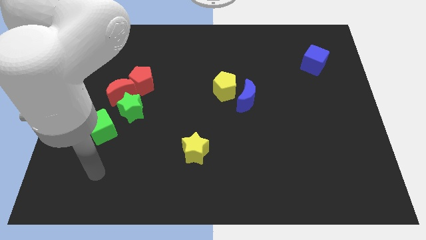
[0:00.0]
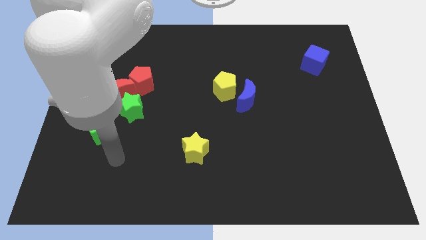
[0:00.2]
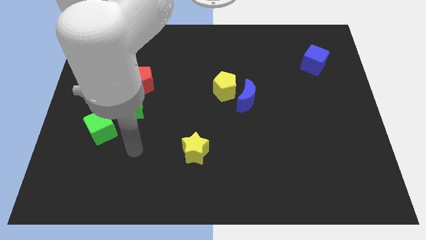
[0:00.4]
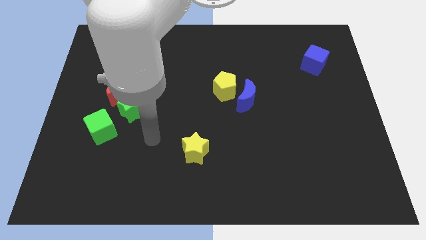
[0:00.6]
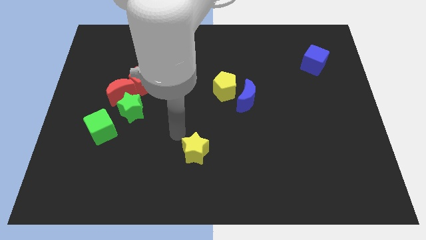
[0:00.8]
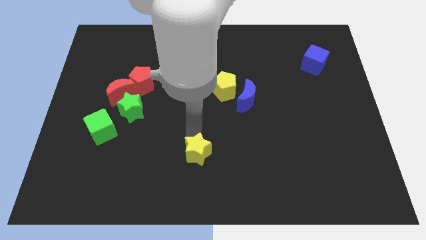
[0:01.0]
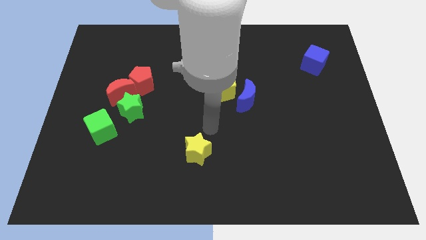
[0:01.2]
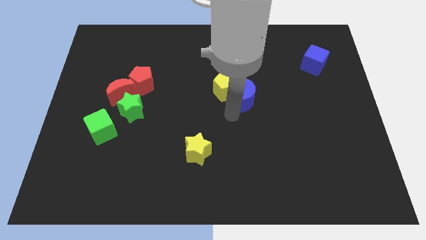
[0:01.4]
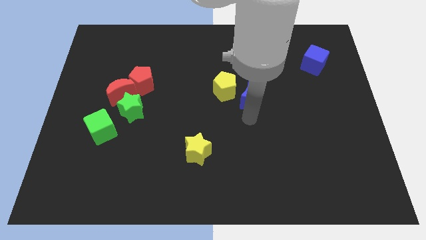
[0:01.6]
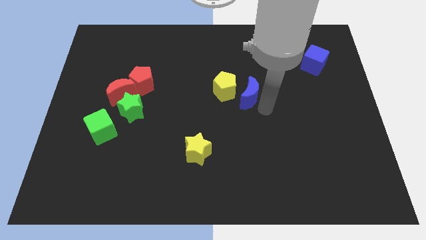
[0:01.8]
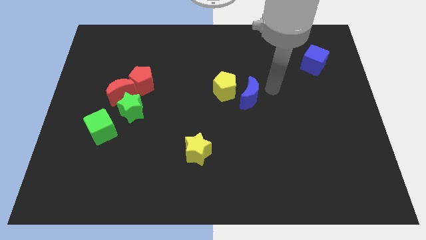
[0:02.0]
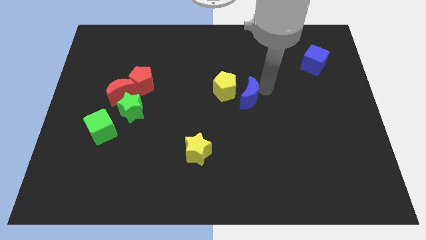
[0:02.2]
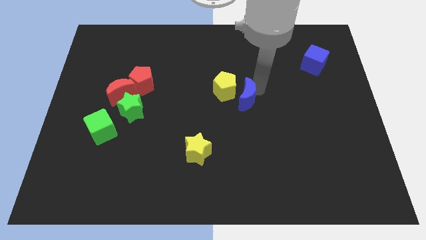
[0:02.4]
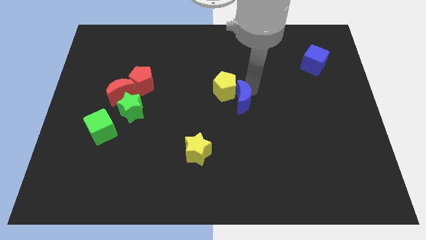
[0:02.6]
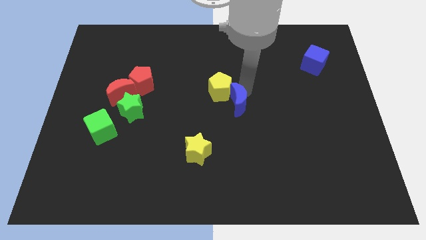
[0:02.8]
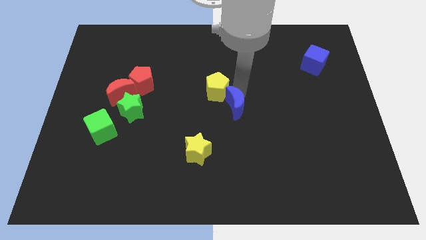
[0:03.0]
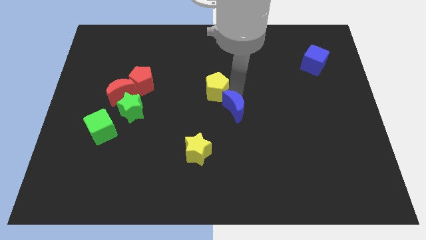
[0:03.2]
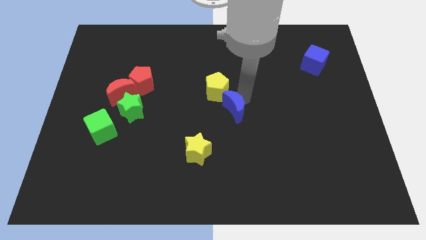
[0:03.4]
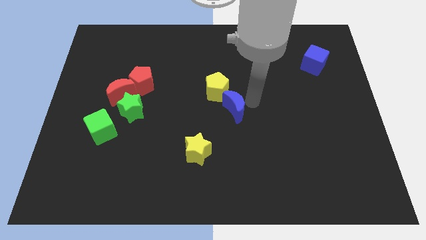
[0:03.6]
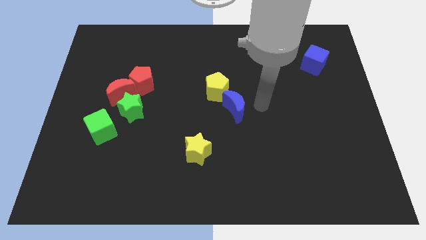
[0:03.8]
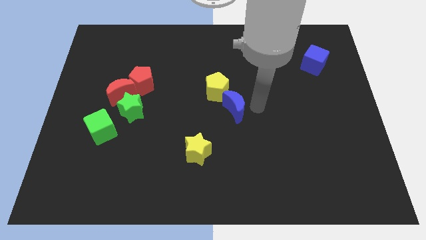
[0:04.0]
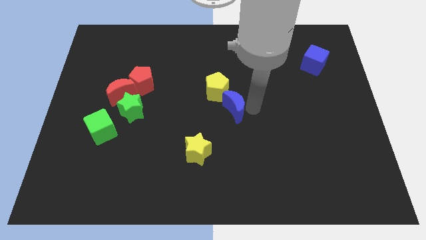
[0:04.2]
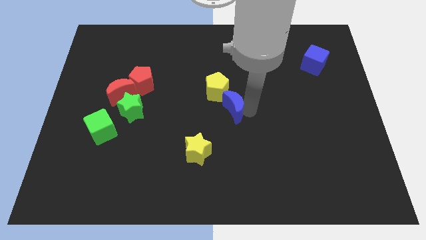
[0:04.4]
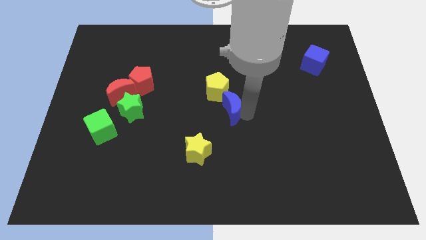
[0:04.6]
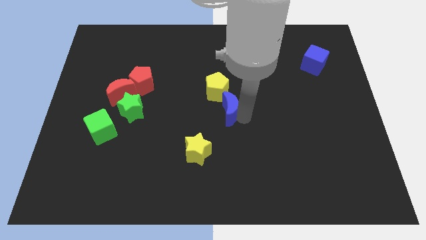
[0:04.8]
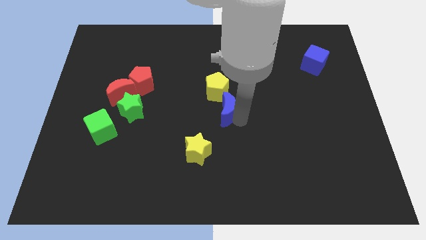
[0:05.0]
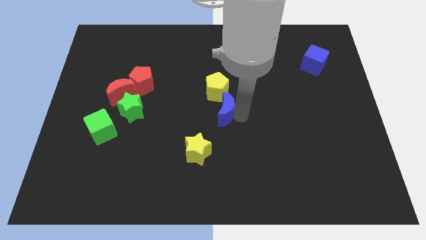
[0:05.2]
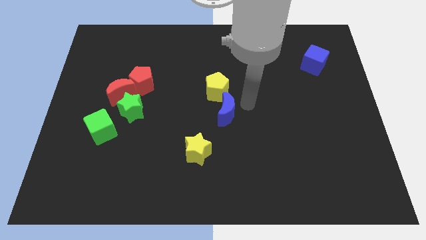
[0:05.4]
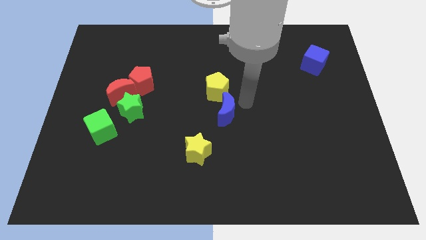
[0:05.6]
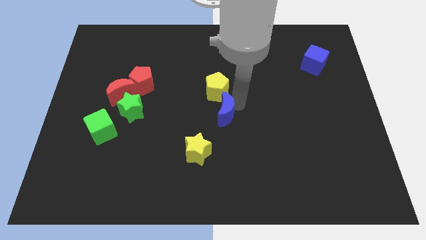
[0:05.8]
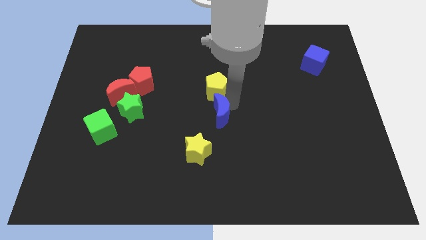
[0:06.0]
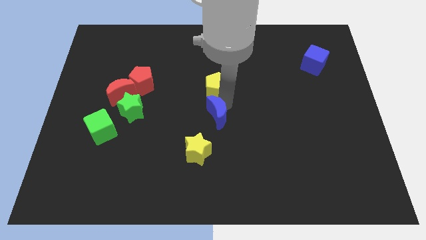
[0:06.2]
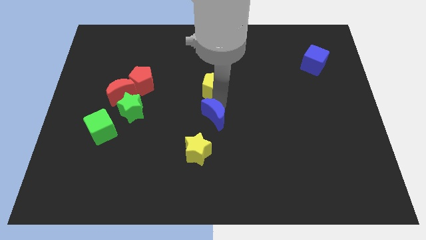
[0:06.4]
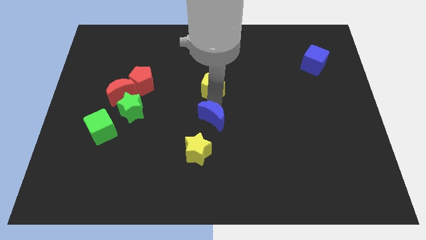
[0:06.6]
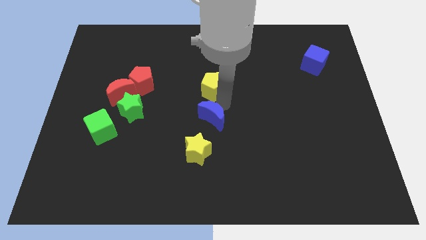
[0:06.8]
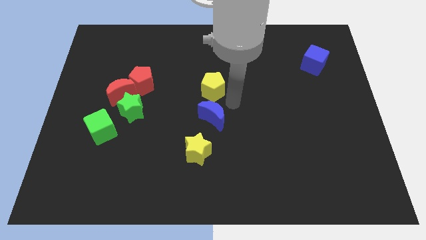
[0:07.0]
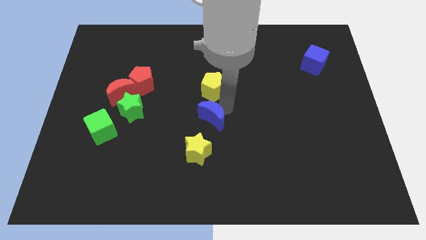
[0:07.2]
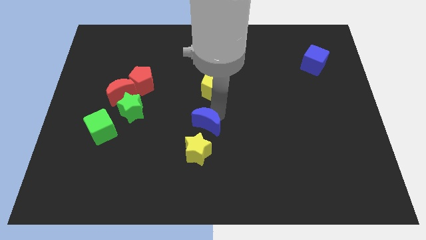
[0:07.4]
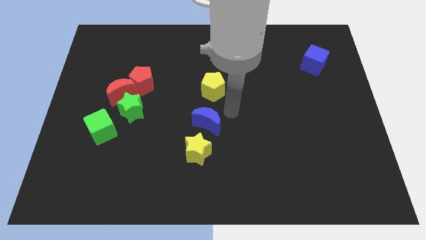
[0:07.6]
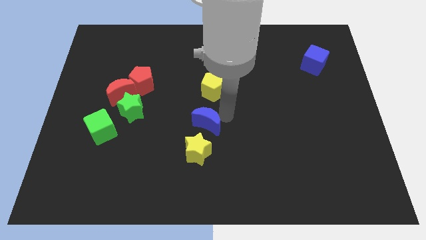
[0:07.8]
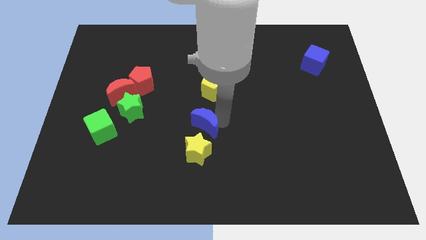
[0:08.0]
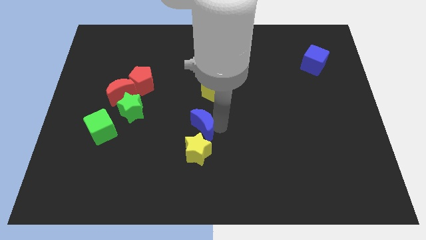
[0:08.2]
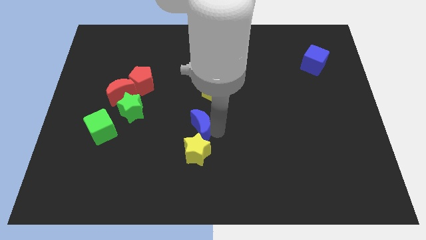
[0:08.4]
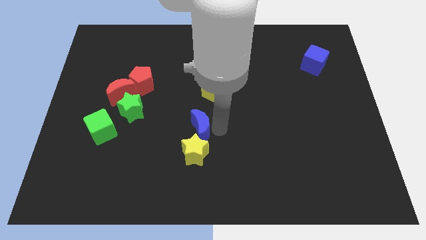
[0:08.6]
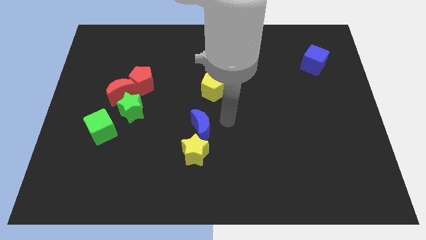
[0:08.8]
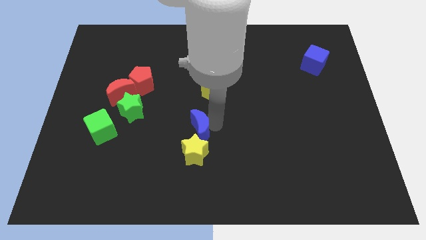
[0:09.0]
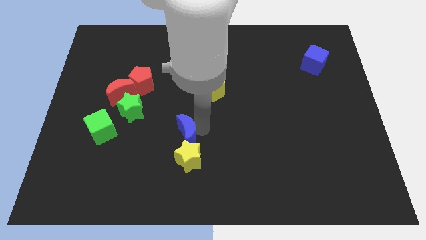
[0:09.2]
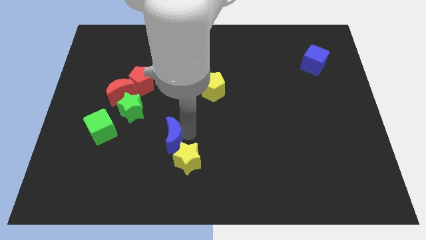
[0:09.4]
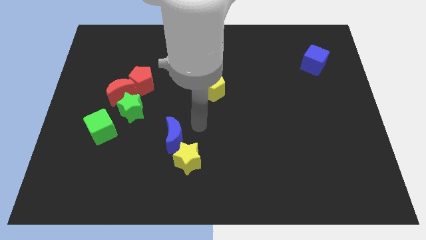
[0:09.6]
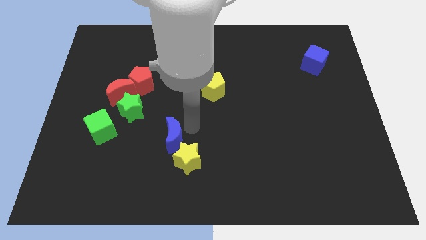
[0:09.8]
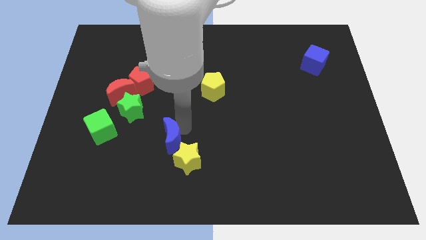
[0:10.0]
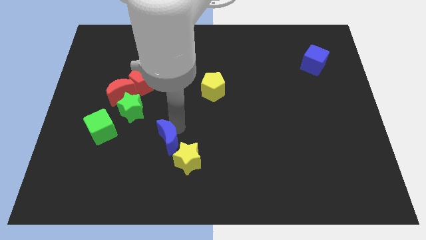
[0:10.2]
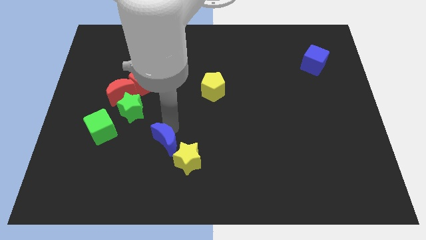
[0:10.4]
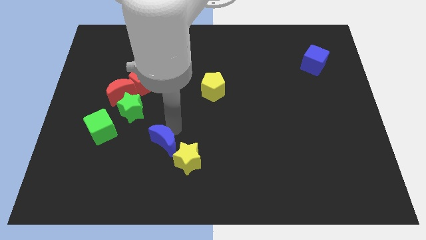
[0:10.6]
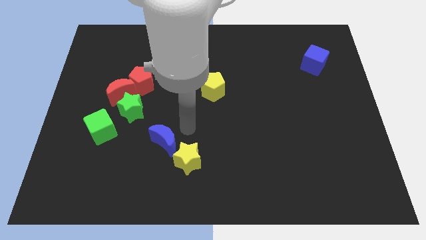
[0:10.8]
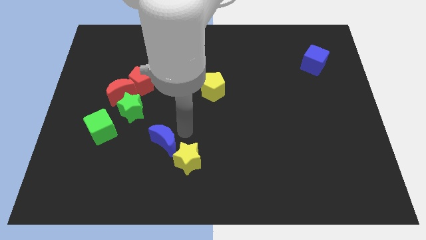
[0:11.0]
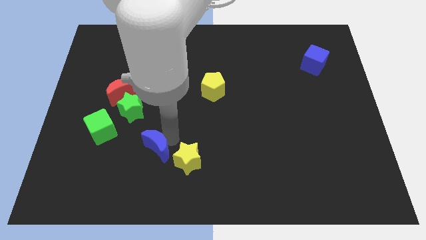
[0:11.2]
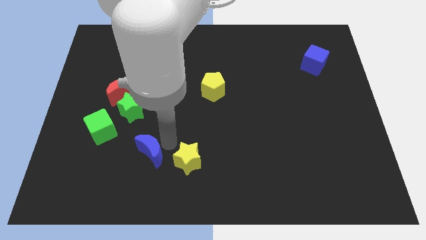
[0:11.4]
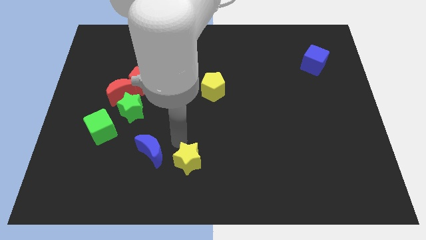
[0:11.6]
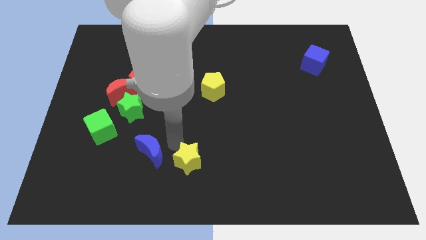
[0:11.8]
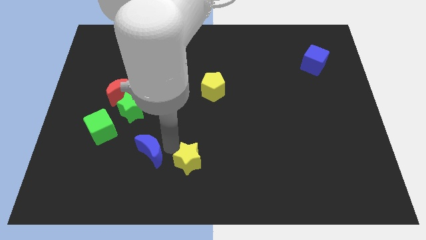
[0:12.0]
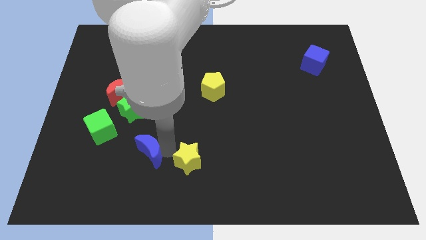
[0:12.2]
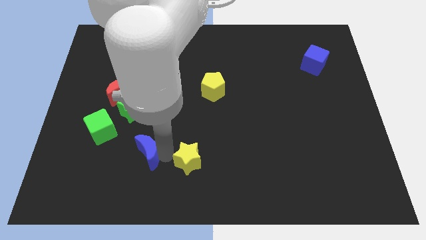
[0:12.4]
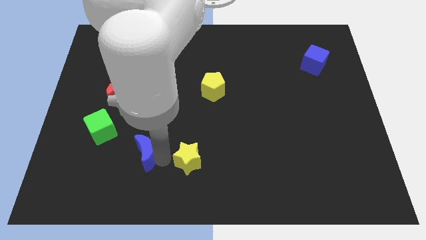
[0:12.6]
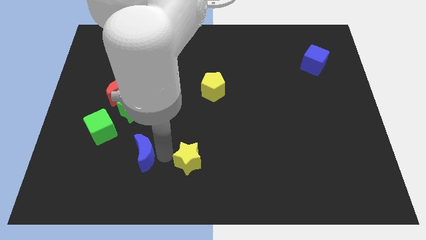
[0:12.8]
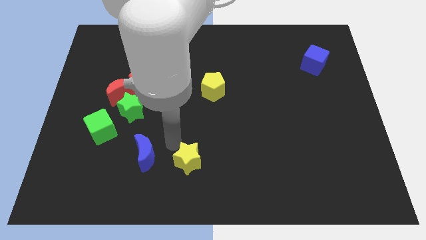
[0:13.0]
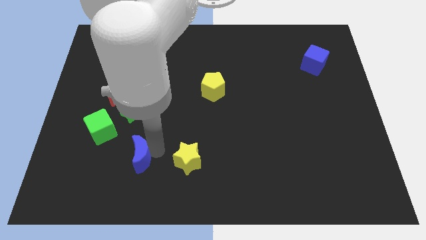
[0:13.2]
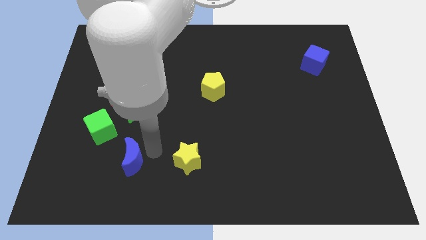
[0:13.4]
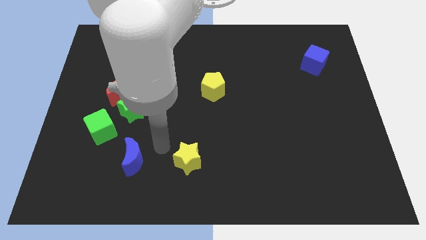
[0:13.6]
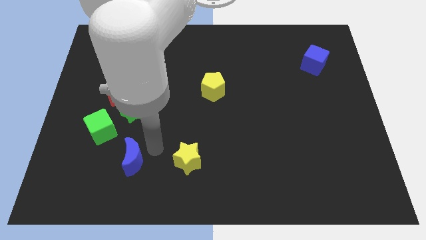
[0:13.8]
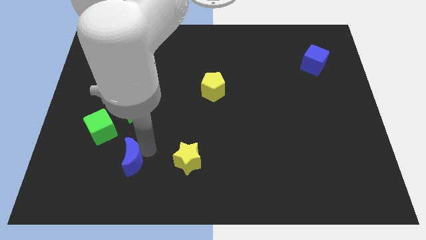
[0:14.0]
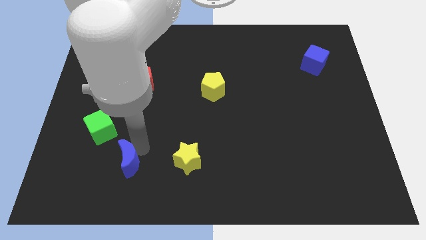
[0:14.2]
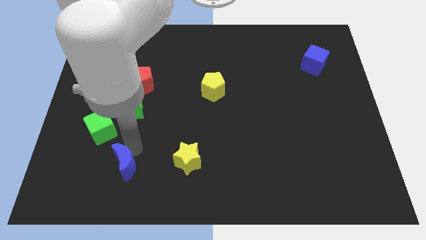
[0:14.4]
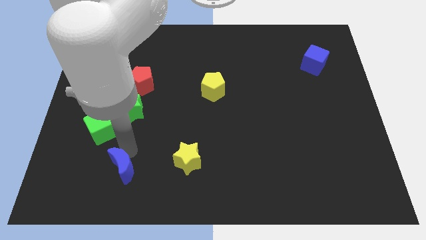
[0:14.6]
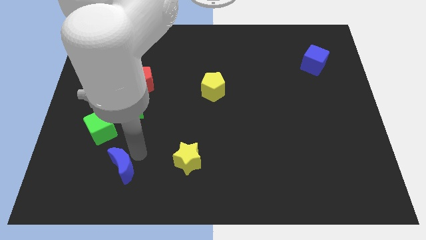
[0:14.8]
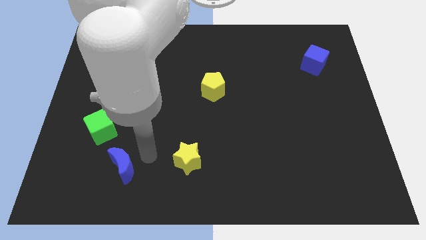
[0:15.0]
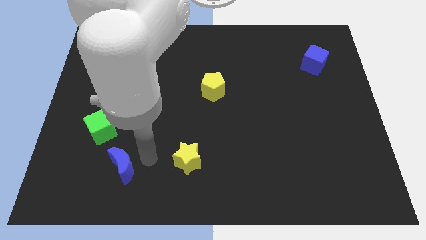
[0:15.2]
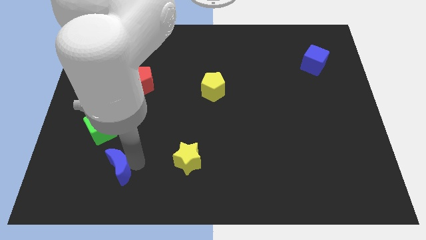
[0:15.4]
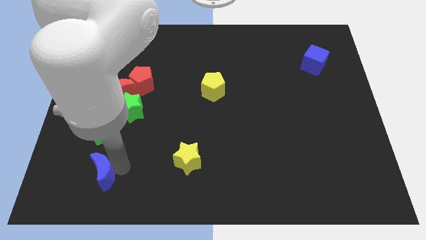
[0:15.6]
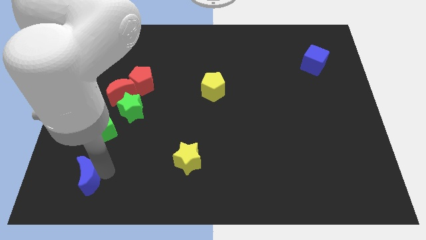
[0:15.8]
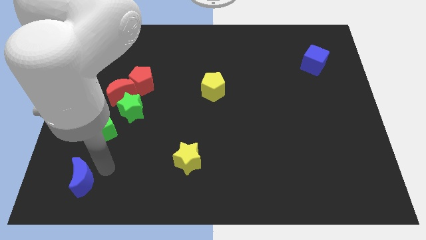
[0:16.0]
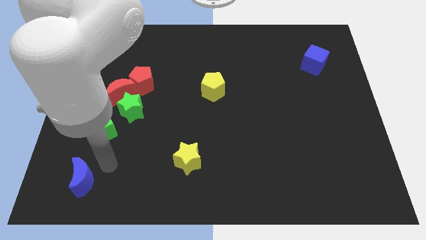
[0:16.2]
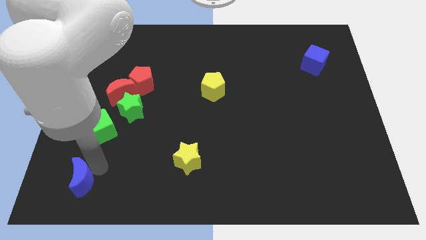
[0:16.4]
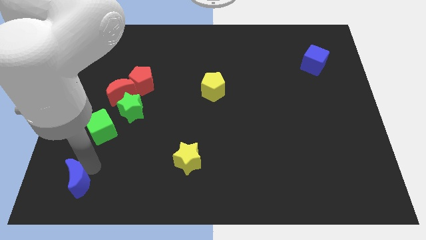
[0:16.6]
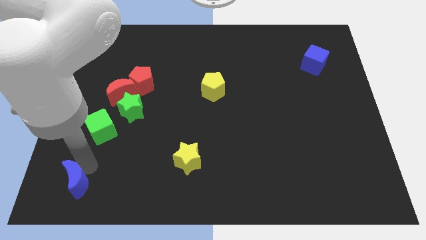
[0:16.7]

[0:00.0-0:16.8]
slide the blue moon to the bottom left corner
